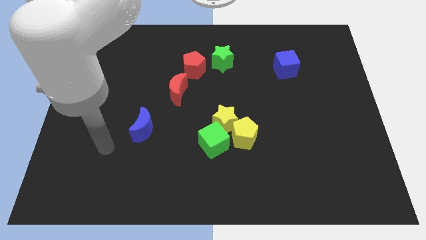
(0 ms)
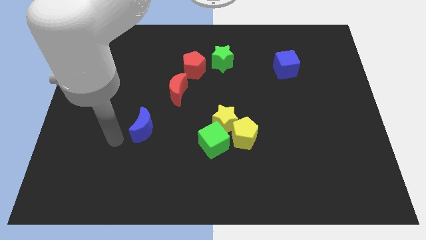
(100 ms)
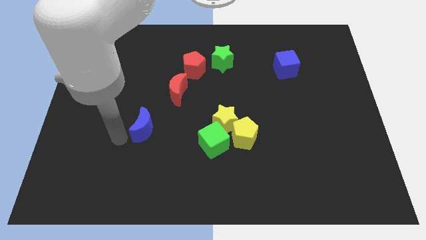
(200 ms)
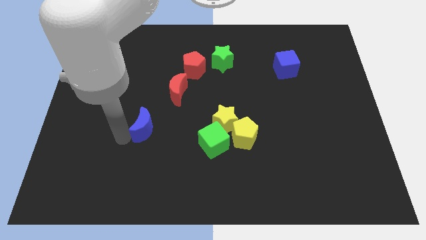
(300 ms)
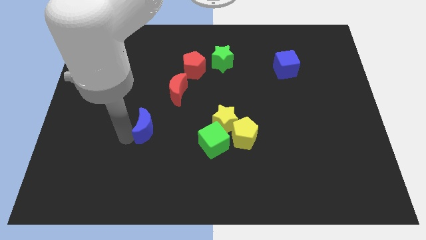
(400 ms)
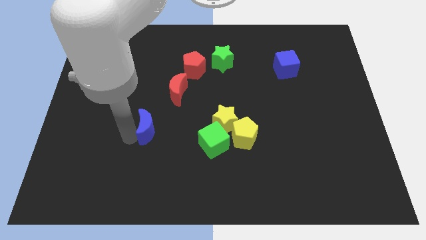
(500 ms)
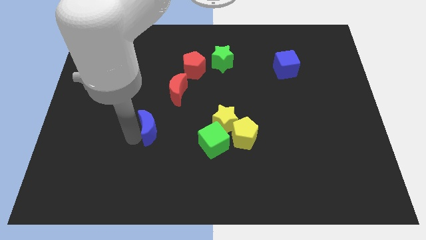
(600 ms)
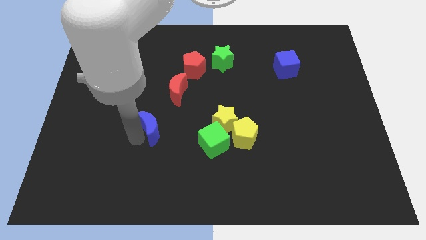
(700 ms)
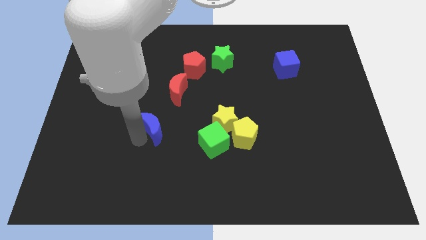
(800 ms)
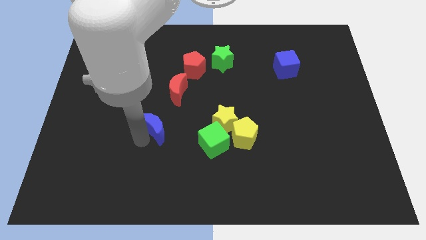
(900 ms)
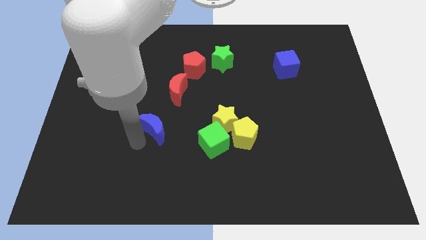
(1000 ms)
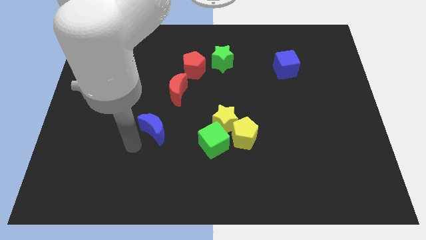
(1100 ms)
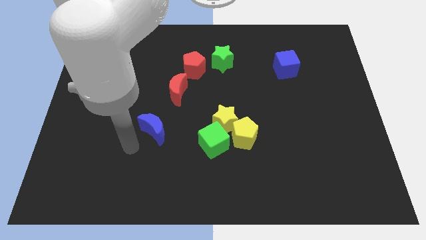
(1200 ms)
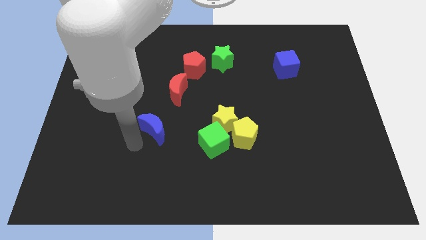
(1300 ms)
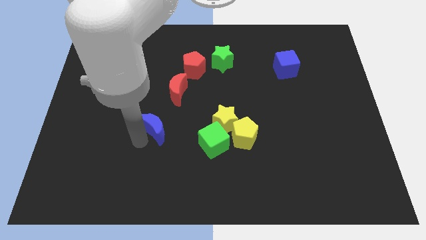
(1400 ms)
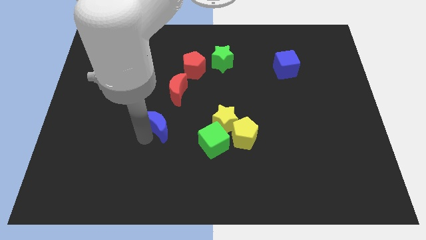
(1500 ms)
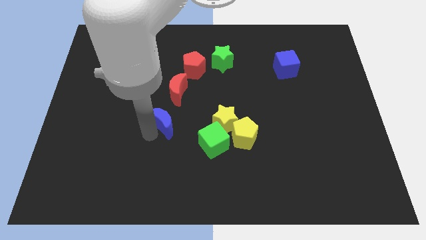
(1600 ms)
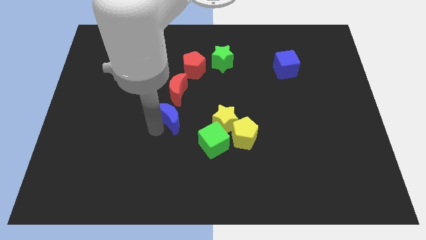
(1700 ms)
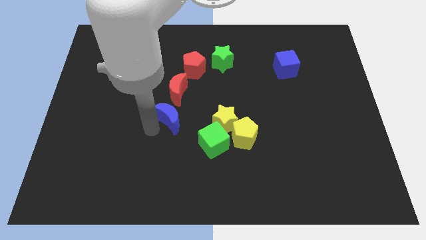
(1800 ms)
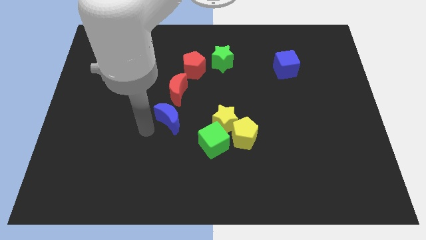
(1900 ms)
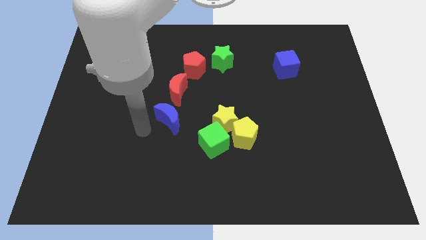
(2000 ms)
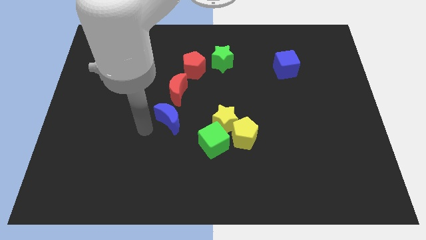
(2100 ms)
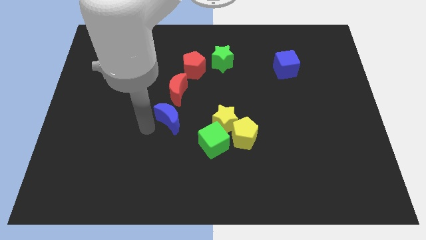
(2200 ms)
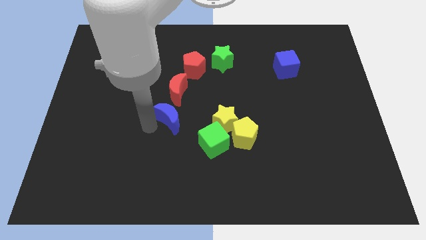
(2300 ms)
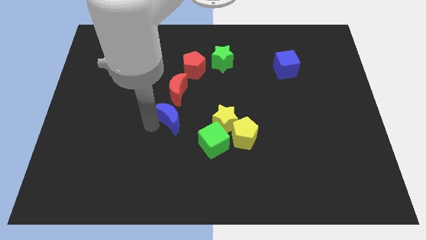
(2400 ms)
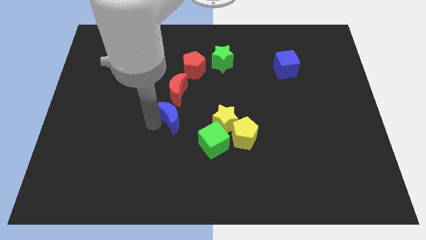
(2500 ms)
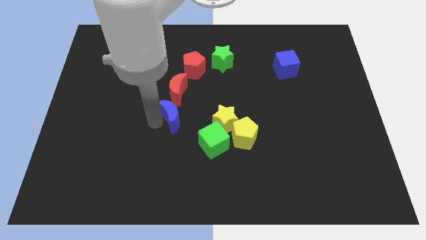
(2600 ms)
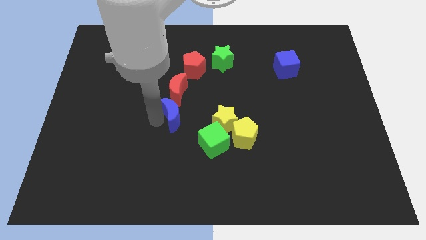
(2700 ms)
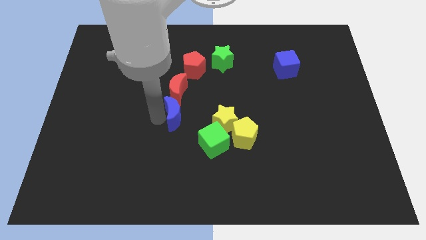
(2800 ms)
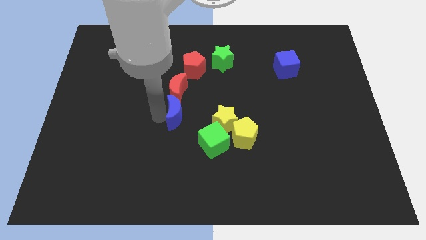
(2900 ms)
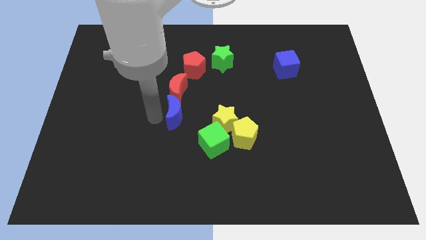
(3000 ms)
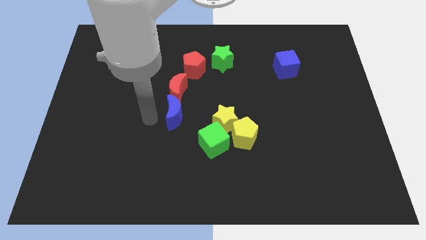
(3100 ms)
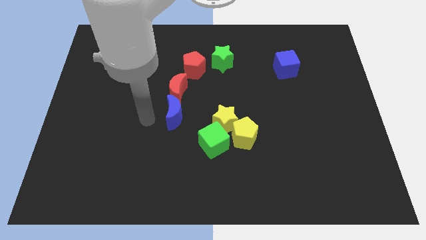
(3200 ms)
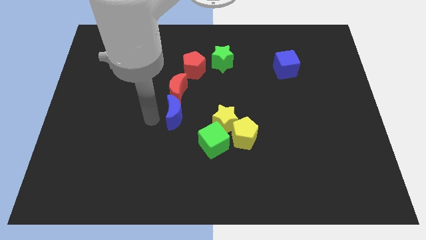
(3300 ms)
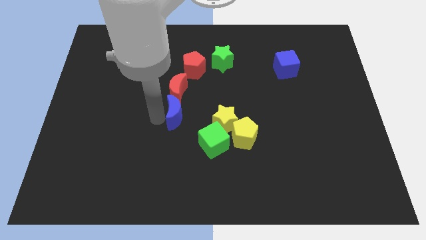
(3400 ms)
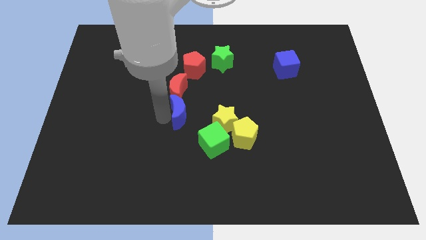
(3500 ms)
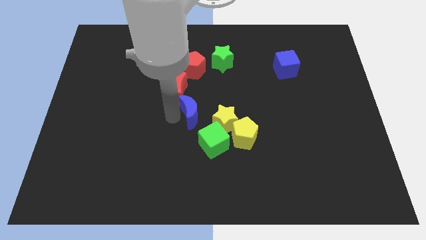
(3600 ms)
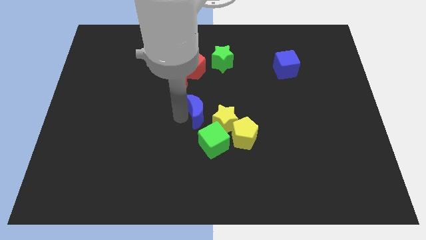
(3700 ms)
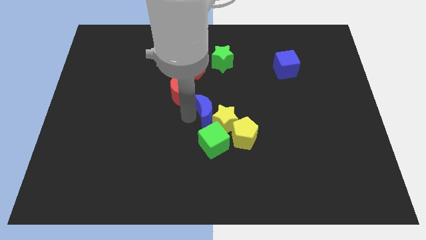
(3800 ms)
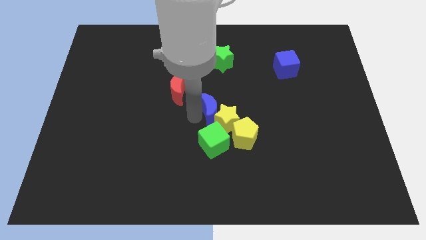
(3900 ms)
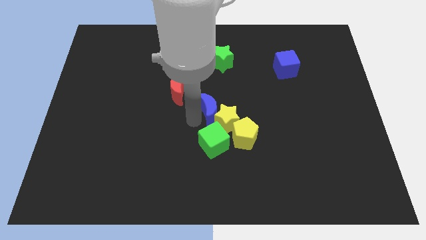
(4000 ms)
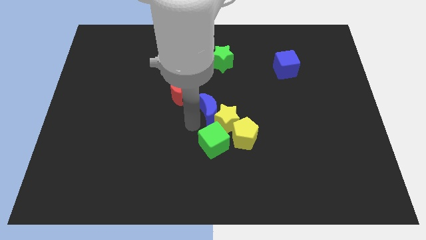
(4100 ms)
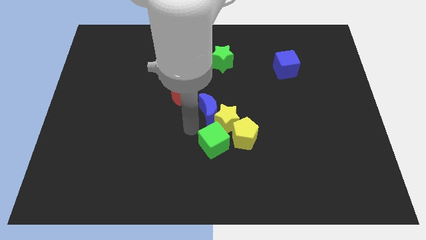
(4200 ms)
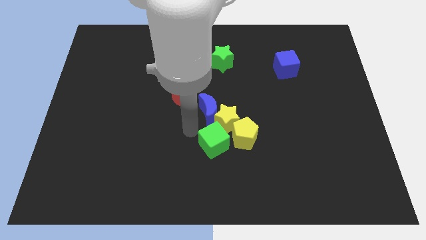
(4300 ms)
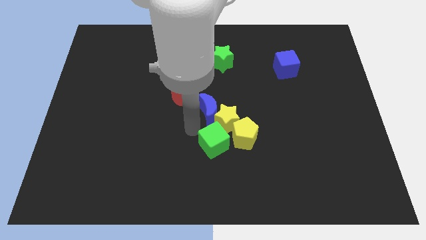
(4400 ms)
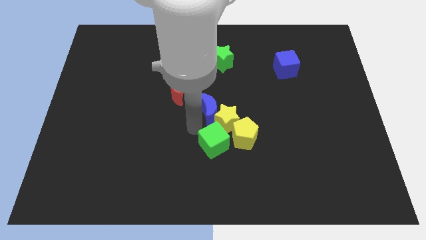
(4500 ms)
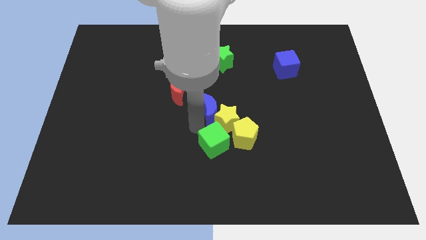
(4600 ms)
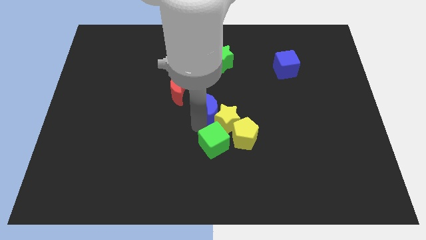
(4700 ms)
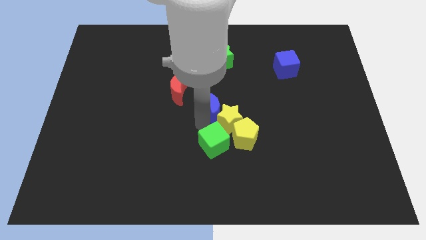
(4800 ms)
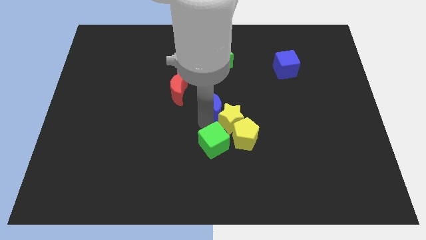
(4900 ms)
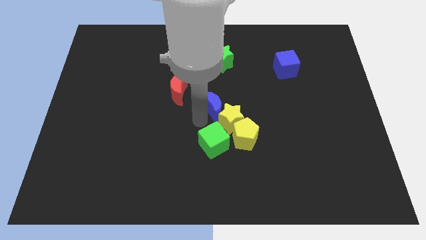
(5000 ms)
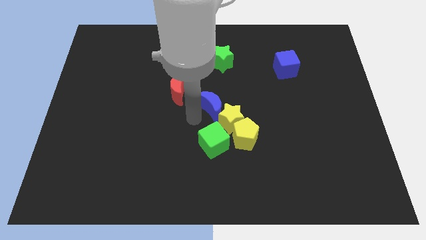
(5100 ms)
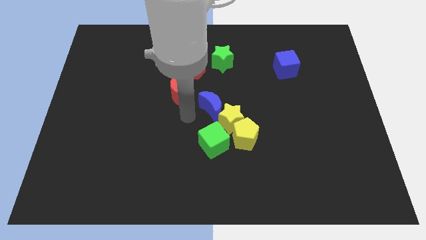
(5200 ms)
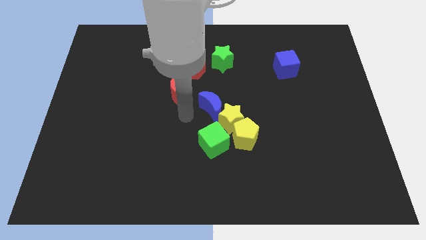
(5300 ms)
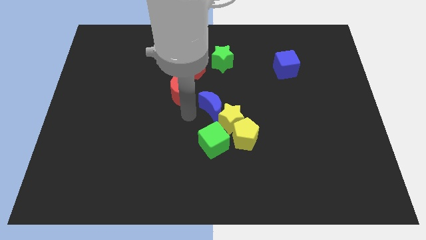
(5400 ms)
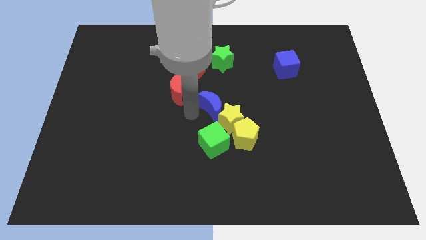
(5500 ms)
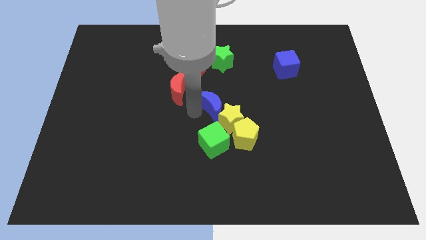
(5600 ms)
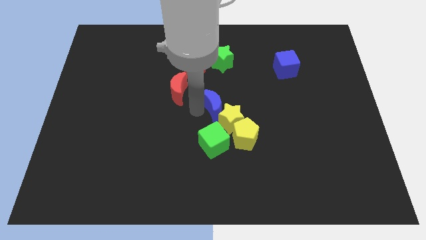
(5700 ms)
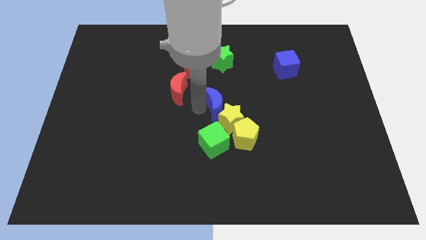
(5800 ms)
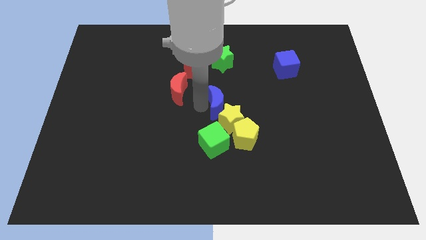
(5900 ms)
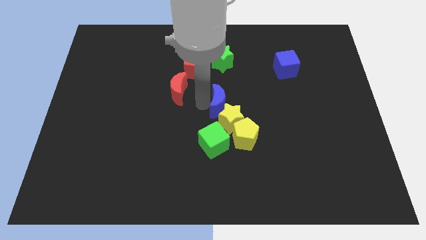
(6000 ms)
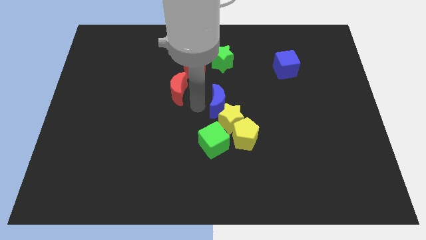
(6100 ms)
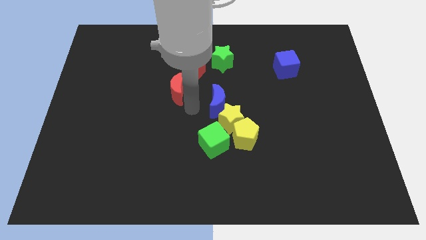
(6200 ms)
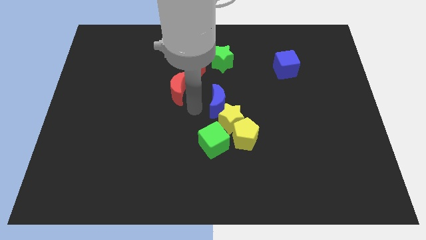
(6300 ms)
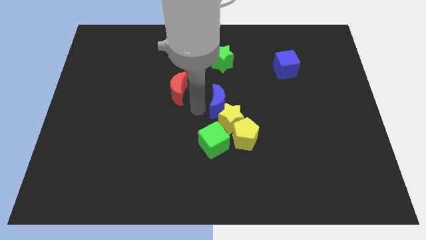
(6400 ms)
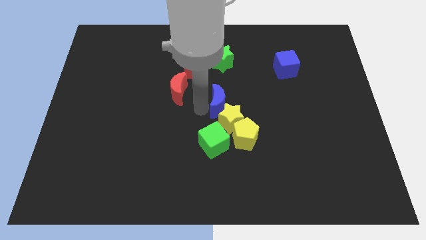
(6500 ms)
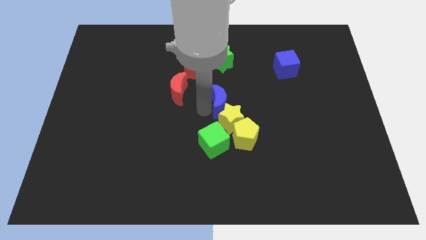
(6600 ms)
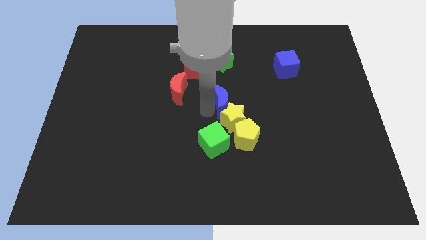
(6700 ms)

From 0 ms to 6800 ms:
move the blue moon to the top of the yellow pentagon
